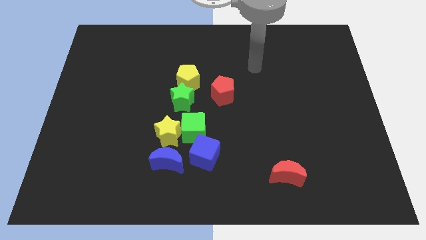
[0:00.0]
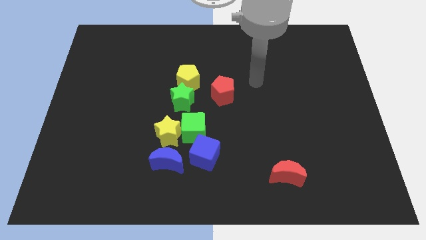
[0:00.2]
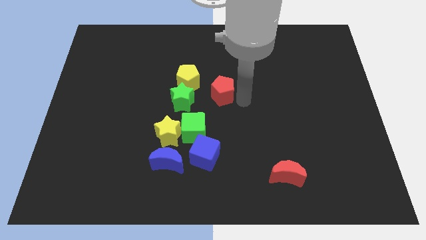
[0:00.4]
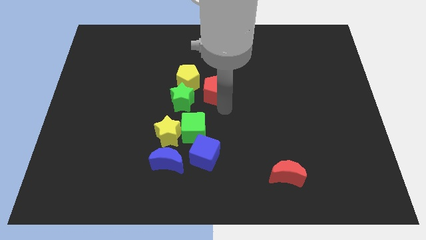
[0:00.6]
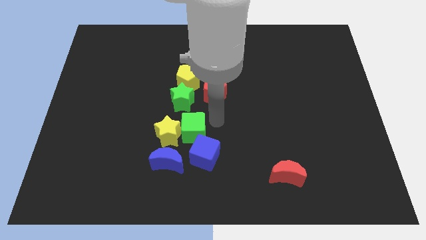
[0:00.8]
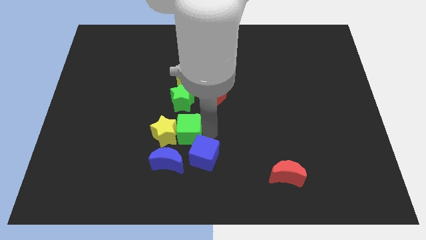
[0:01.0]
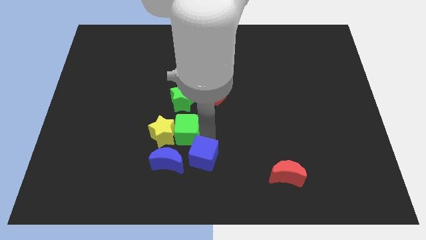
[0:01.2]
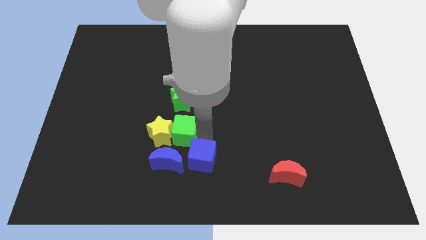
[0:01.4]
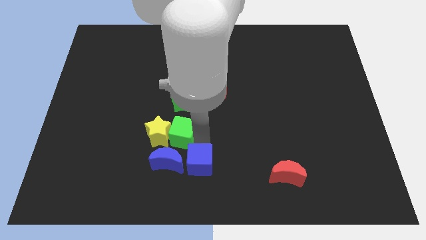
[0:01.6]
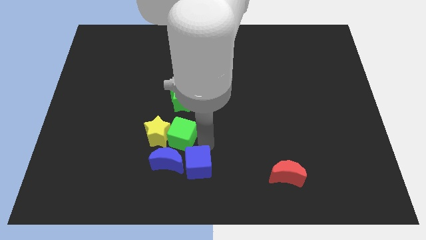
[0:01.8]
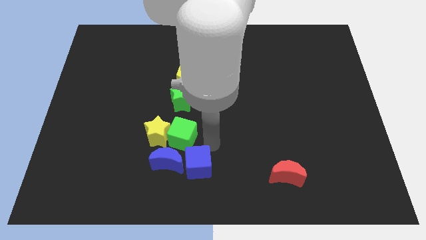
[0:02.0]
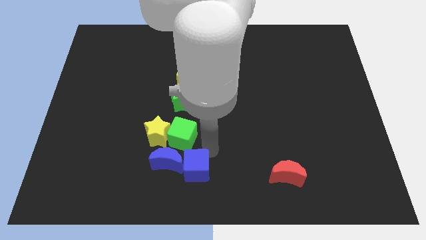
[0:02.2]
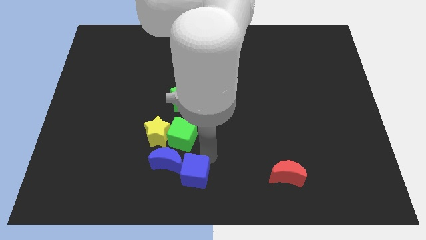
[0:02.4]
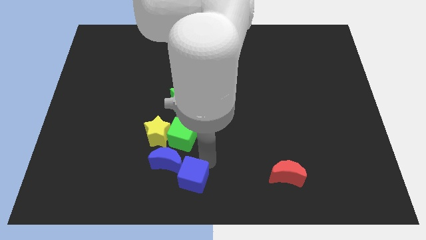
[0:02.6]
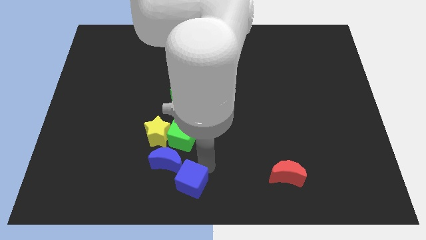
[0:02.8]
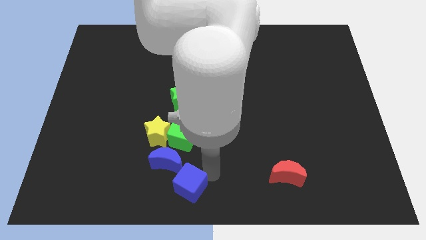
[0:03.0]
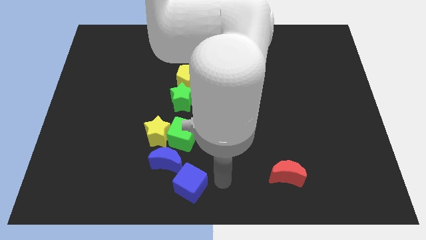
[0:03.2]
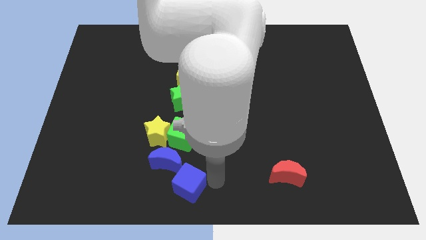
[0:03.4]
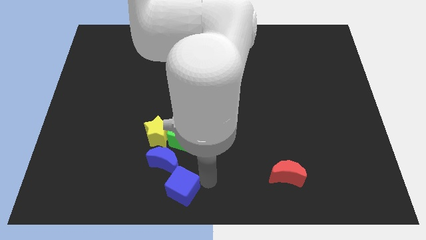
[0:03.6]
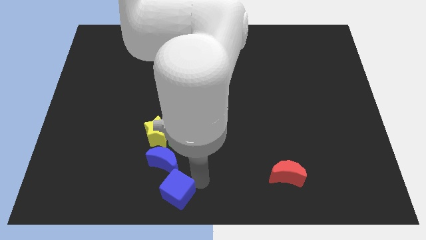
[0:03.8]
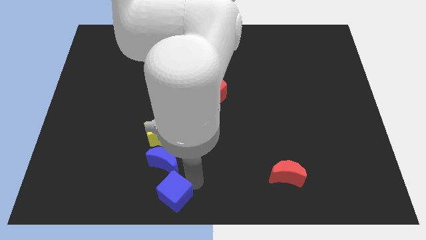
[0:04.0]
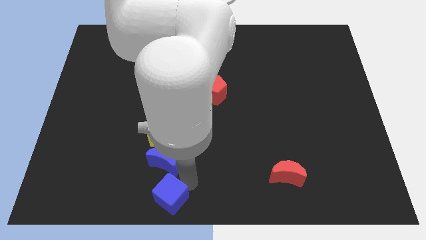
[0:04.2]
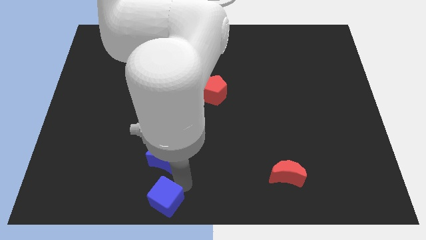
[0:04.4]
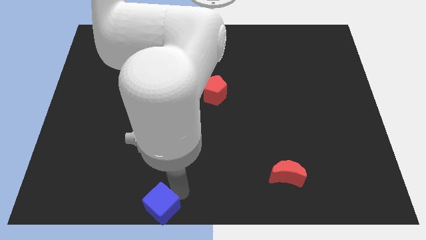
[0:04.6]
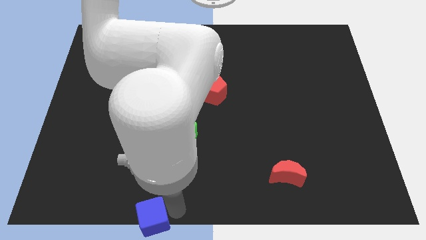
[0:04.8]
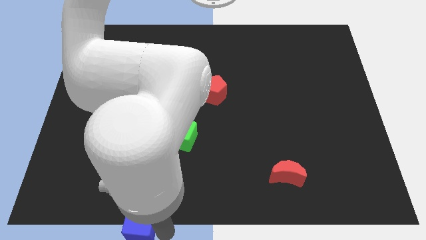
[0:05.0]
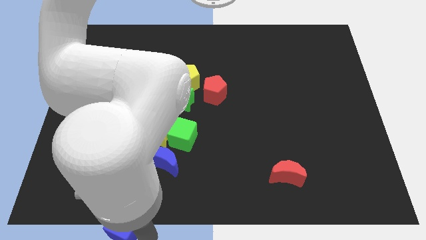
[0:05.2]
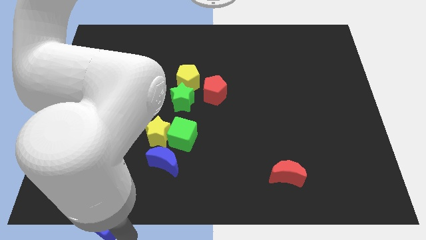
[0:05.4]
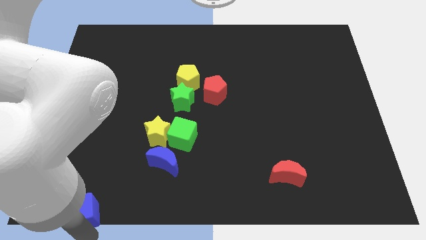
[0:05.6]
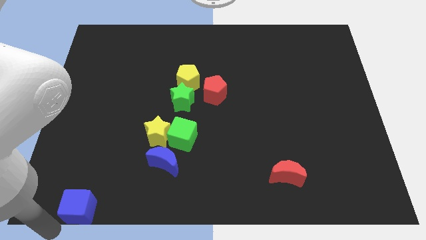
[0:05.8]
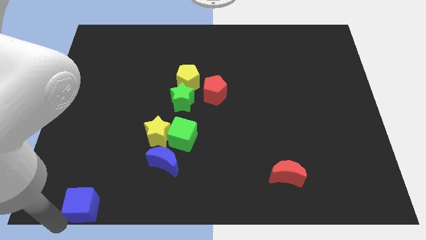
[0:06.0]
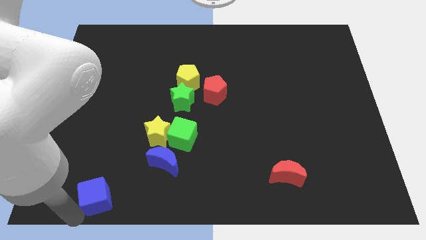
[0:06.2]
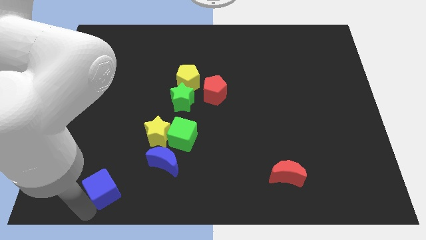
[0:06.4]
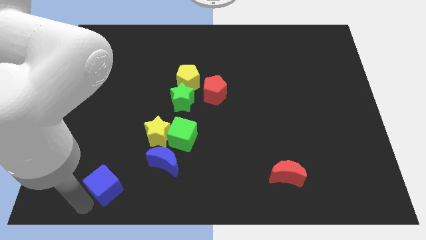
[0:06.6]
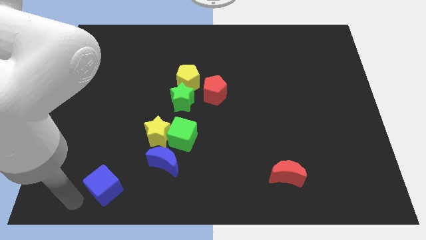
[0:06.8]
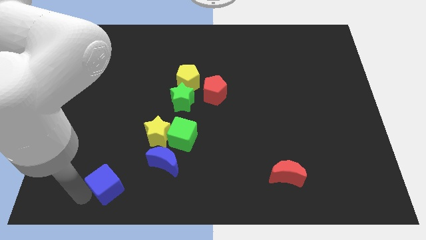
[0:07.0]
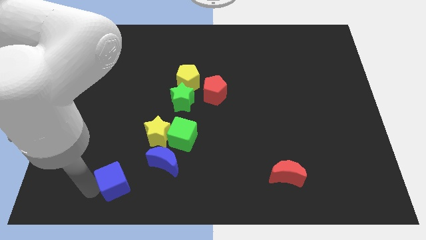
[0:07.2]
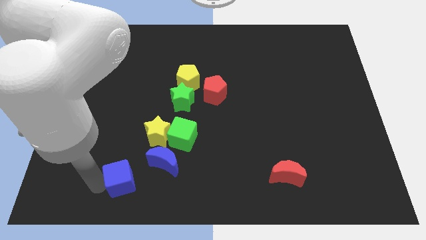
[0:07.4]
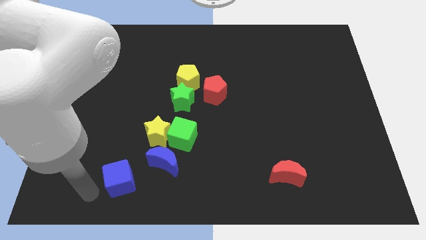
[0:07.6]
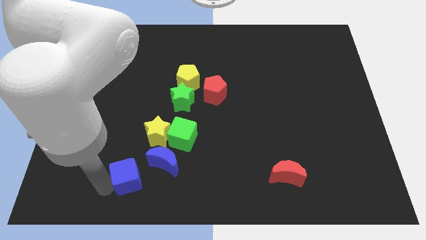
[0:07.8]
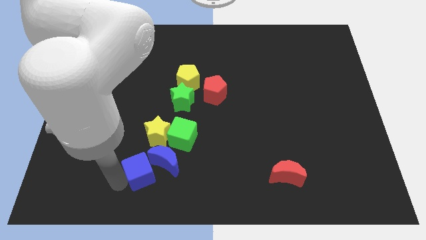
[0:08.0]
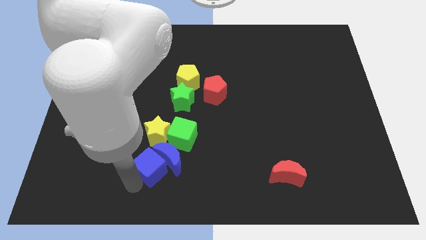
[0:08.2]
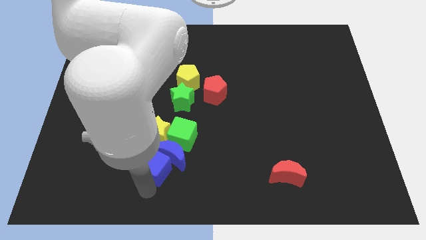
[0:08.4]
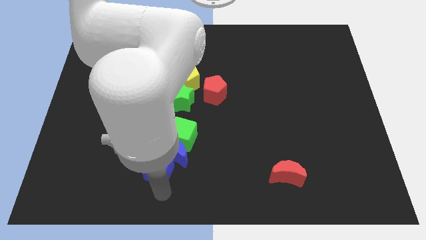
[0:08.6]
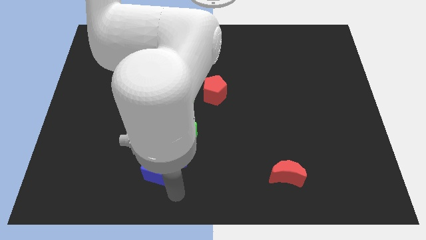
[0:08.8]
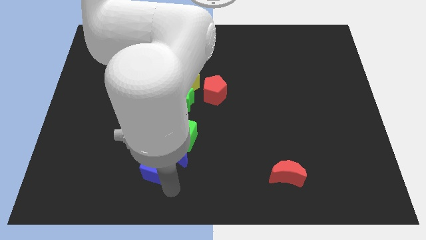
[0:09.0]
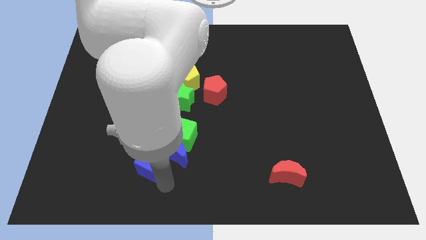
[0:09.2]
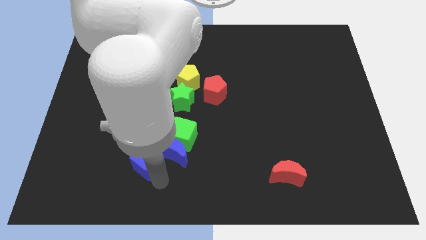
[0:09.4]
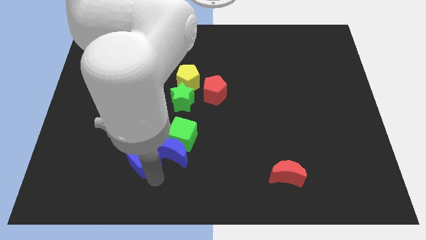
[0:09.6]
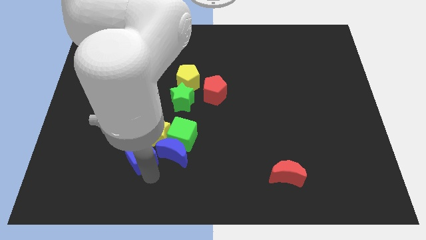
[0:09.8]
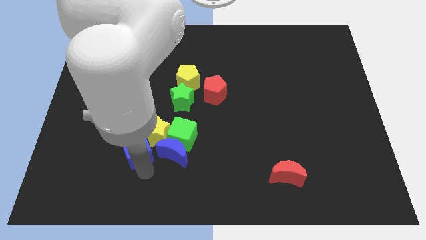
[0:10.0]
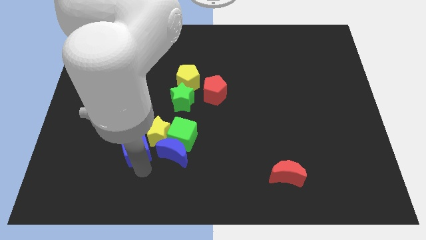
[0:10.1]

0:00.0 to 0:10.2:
push the blue cube slightly diagonally upwards and to the left

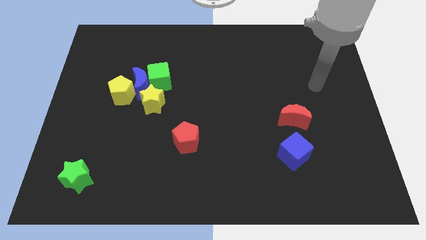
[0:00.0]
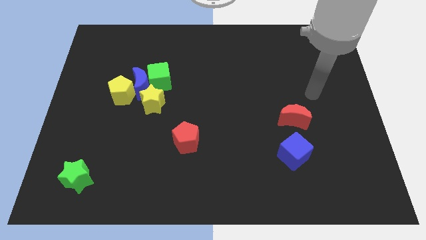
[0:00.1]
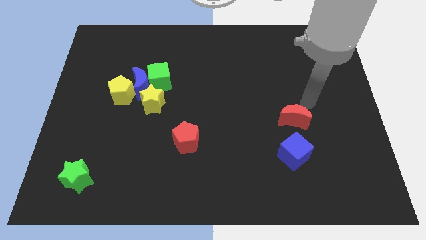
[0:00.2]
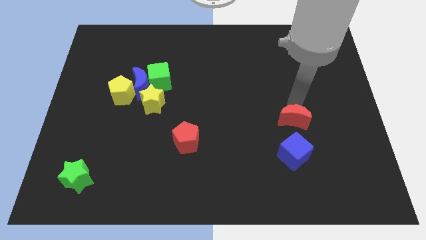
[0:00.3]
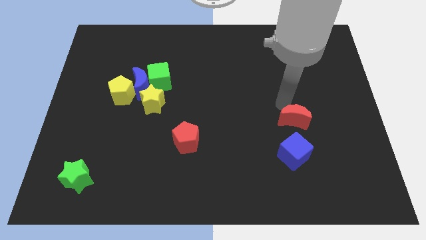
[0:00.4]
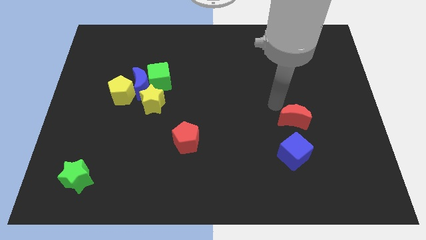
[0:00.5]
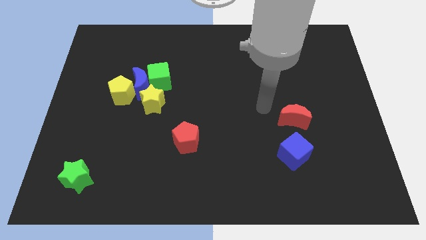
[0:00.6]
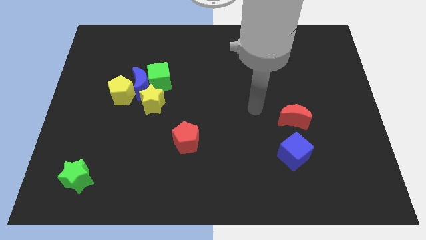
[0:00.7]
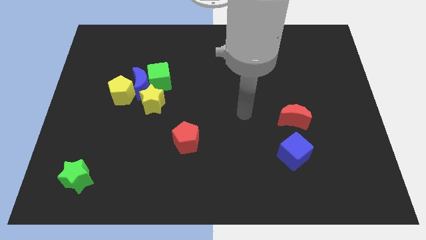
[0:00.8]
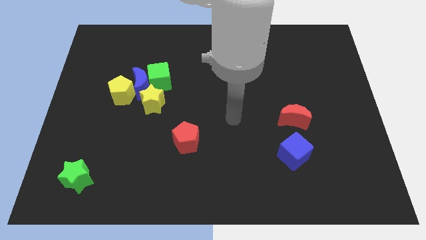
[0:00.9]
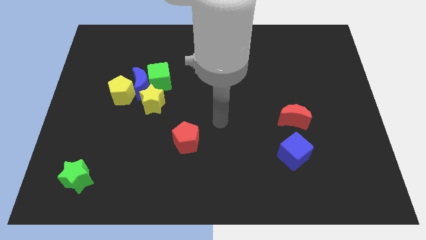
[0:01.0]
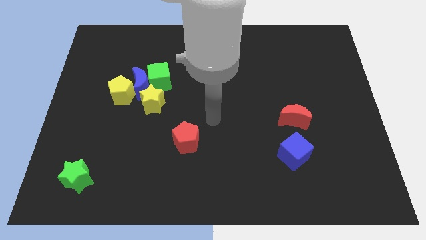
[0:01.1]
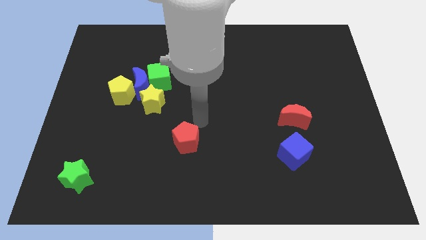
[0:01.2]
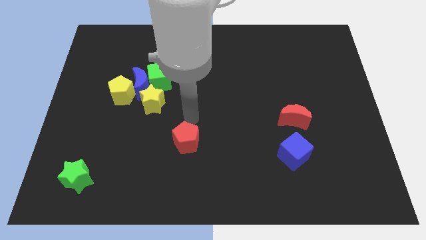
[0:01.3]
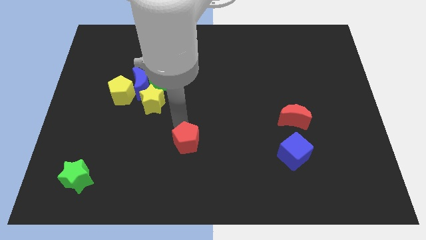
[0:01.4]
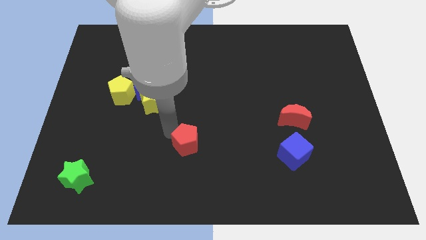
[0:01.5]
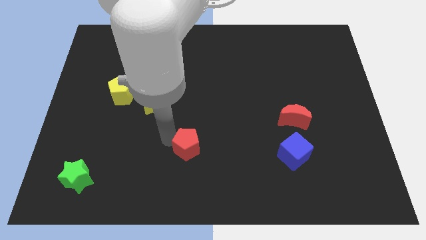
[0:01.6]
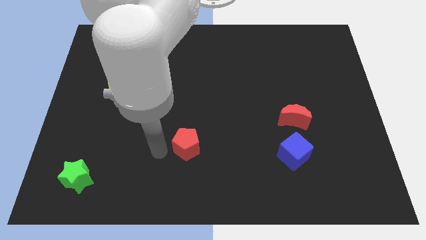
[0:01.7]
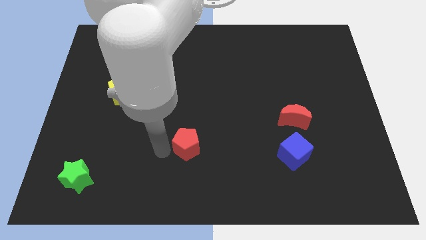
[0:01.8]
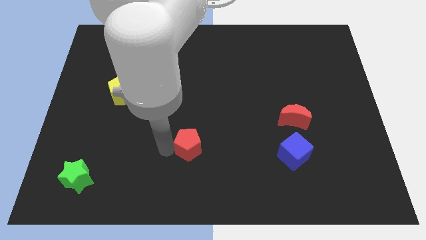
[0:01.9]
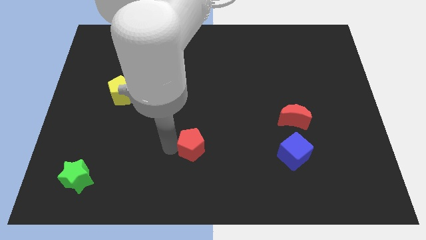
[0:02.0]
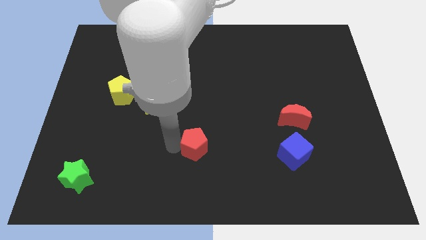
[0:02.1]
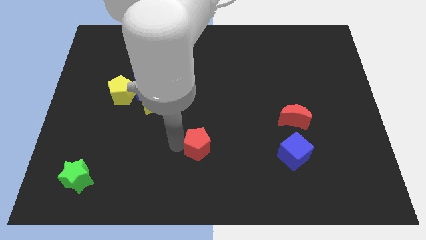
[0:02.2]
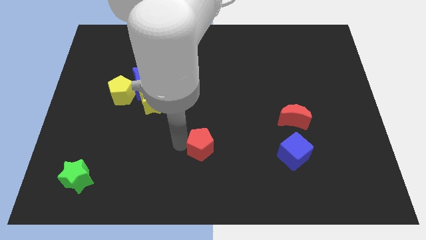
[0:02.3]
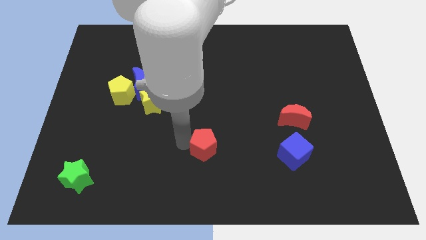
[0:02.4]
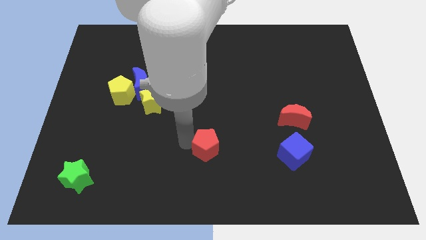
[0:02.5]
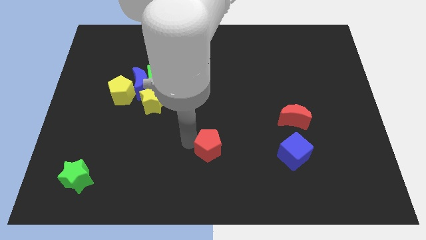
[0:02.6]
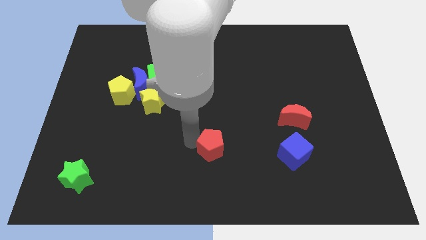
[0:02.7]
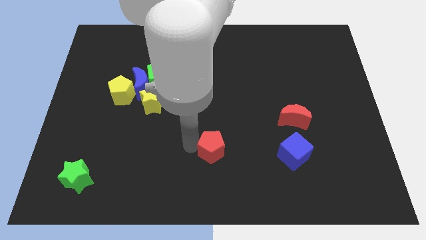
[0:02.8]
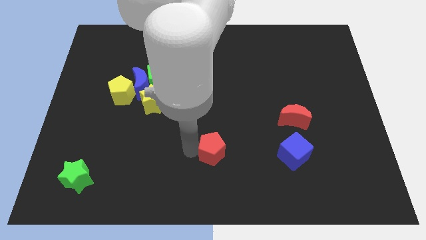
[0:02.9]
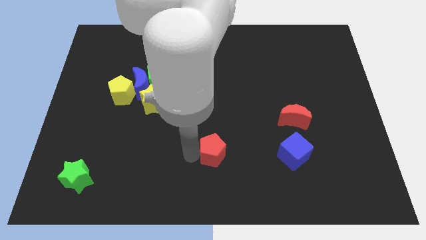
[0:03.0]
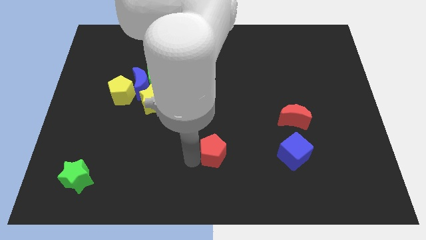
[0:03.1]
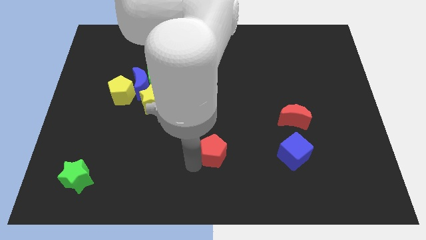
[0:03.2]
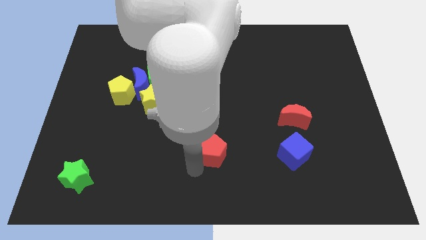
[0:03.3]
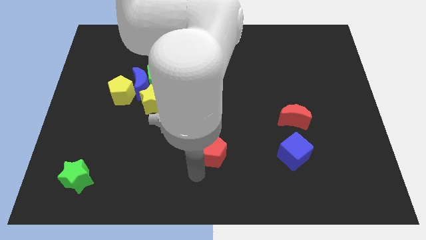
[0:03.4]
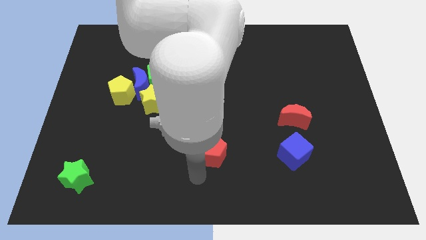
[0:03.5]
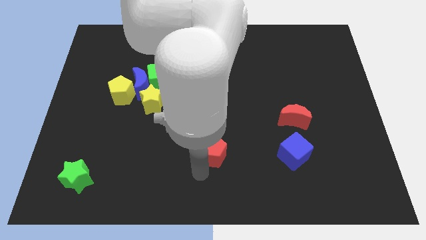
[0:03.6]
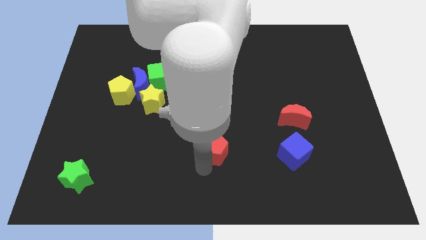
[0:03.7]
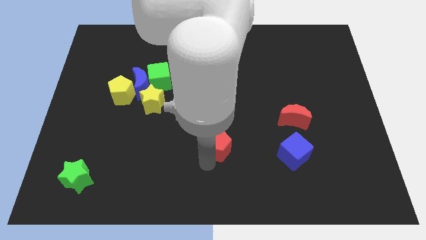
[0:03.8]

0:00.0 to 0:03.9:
push the red pentagon a little to the right
